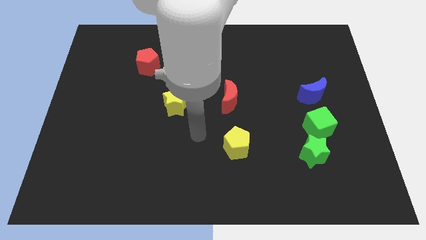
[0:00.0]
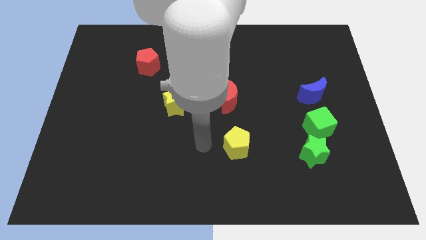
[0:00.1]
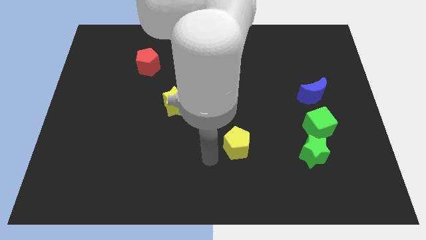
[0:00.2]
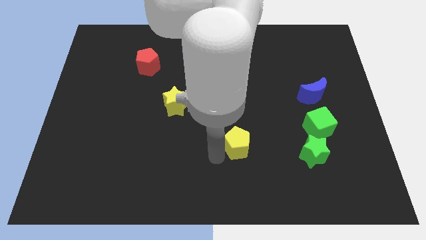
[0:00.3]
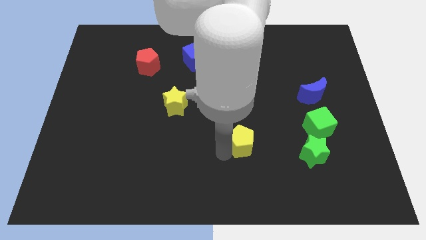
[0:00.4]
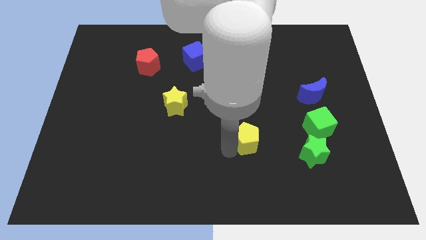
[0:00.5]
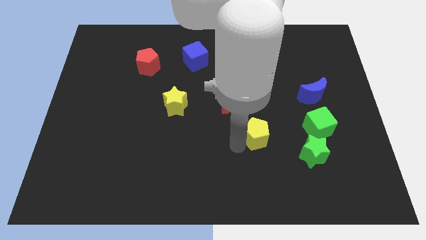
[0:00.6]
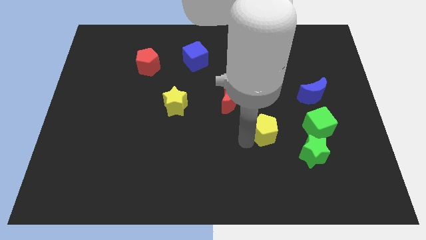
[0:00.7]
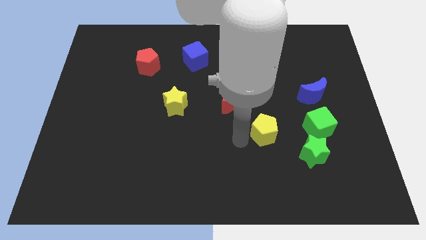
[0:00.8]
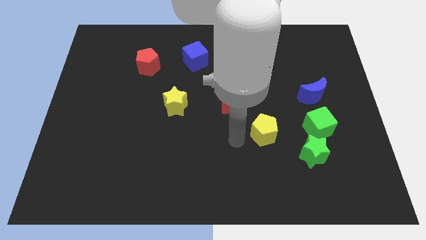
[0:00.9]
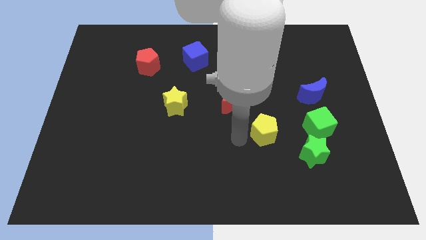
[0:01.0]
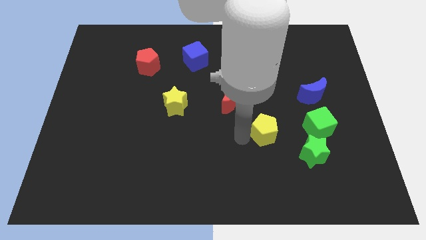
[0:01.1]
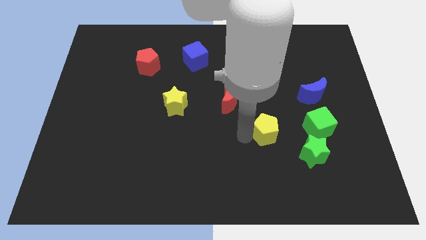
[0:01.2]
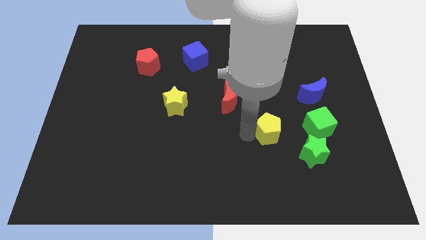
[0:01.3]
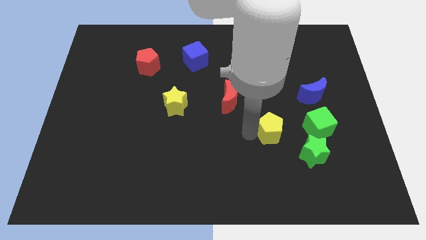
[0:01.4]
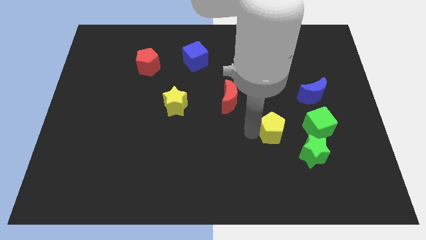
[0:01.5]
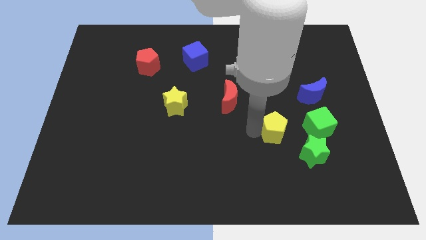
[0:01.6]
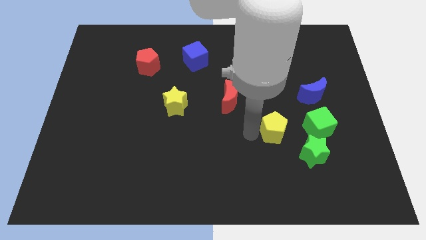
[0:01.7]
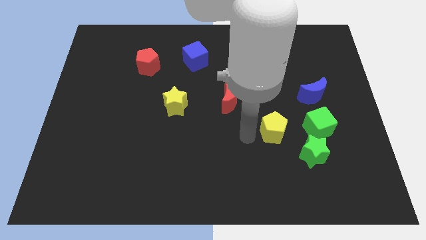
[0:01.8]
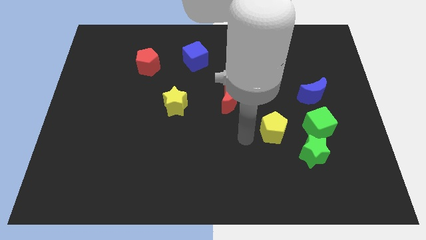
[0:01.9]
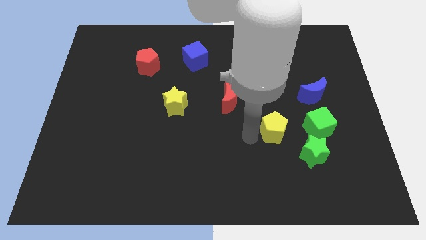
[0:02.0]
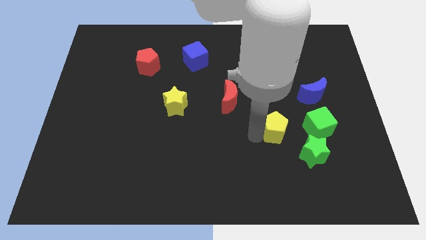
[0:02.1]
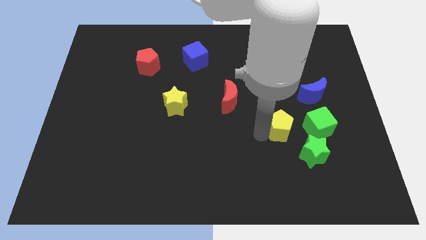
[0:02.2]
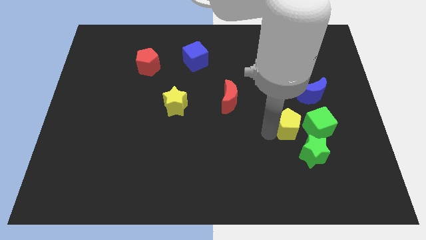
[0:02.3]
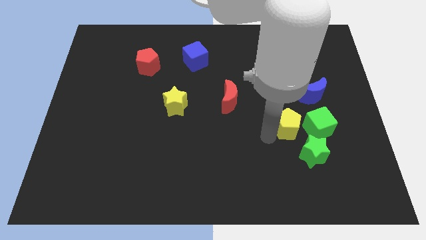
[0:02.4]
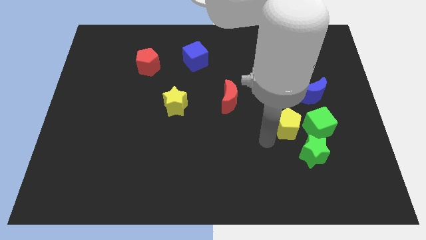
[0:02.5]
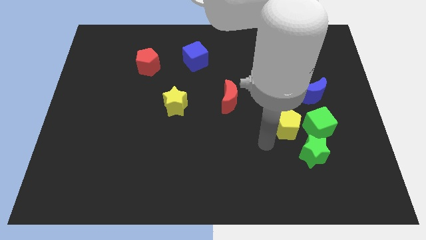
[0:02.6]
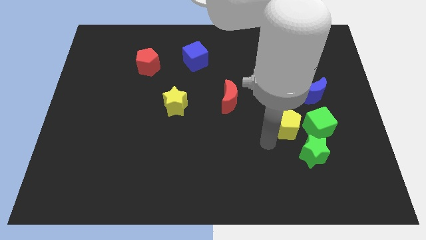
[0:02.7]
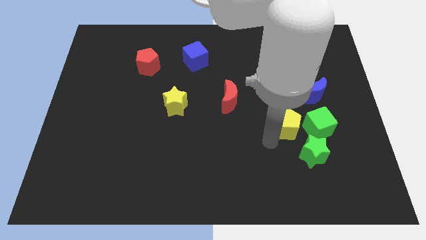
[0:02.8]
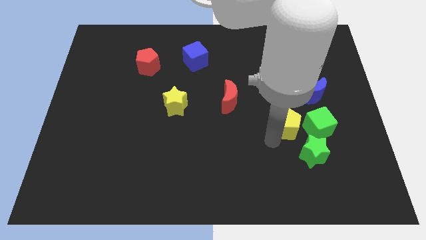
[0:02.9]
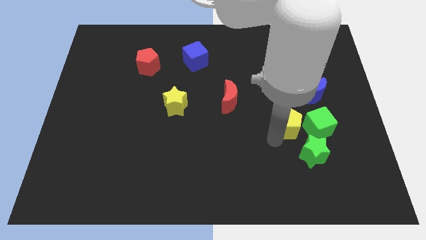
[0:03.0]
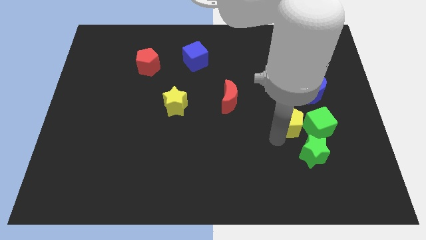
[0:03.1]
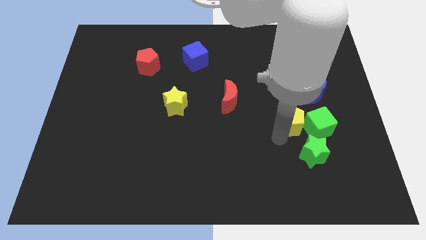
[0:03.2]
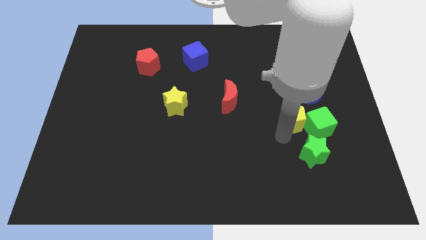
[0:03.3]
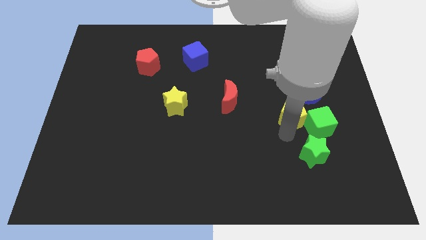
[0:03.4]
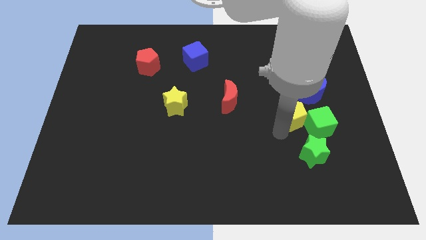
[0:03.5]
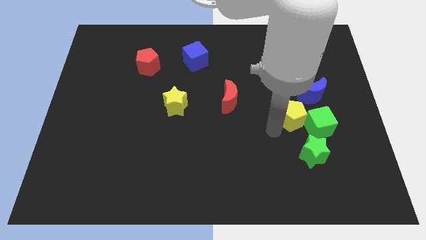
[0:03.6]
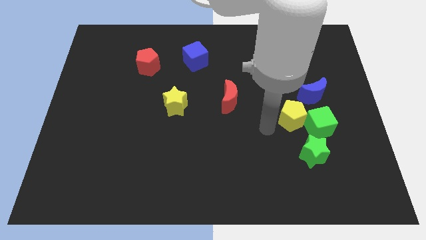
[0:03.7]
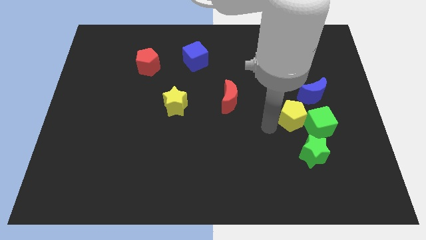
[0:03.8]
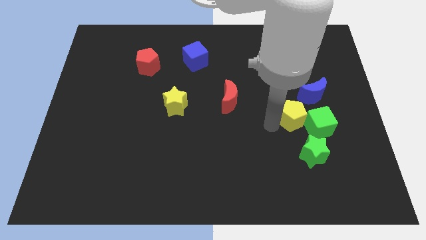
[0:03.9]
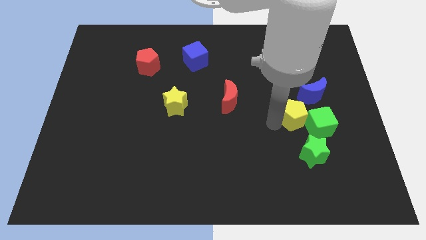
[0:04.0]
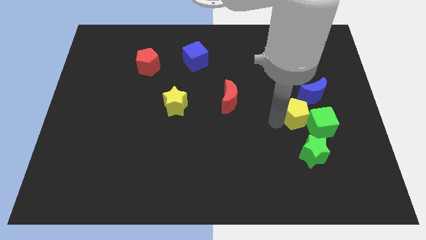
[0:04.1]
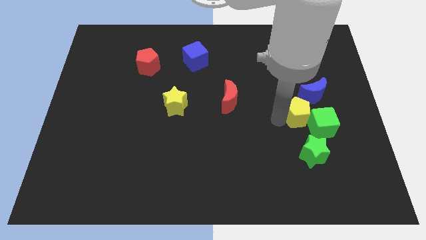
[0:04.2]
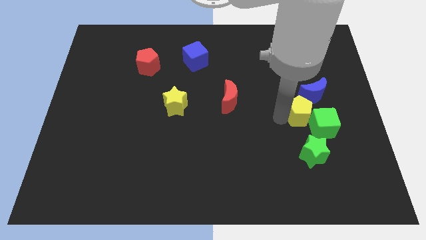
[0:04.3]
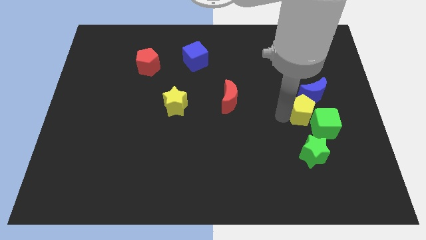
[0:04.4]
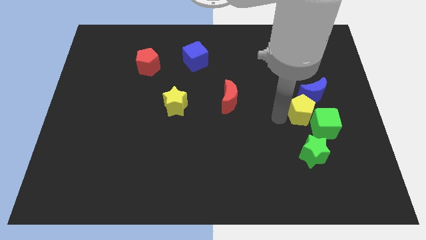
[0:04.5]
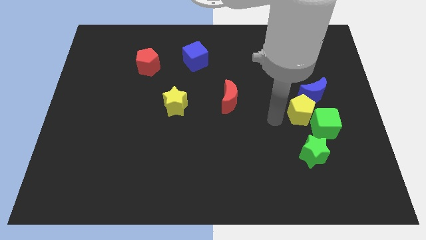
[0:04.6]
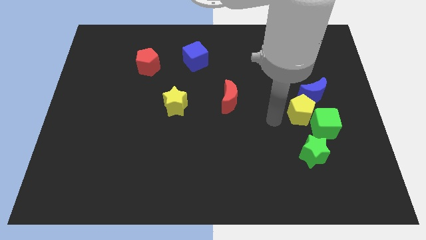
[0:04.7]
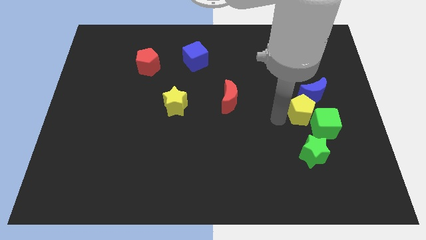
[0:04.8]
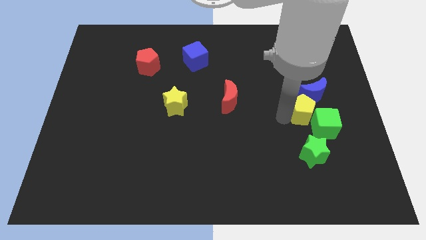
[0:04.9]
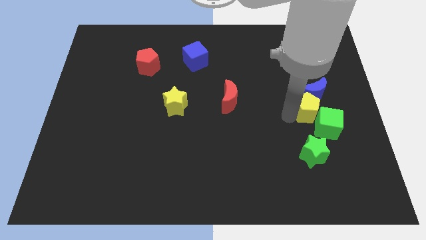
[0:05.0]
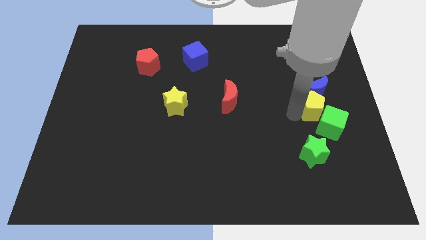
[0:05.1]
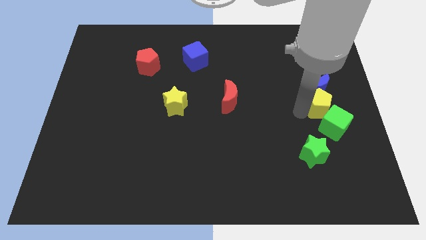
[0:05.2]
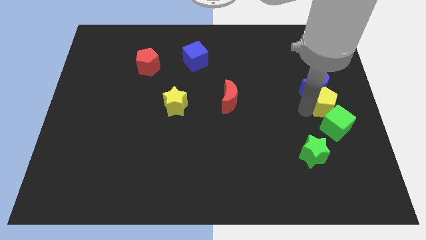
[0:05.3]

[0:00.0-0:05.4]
slide the yellow pentagon to the center right

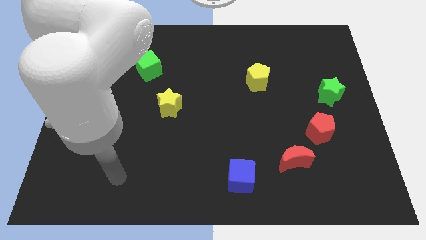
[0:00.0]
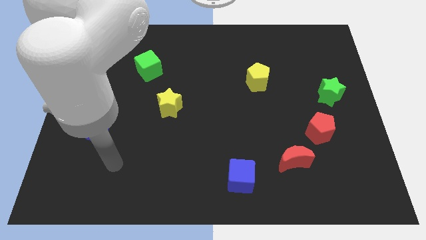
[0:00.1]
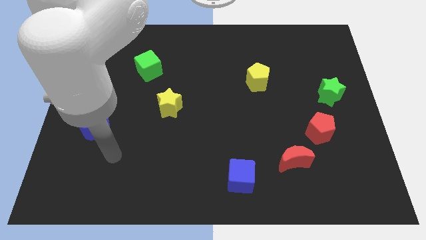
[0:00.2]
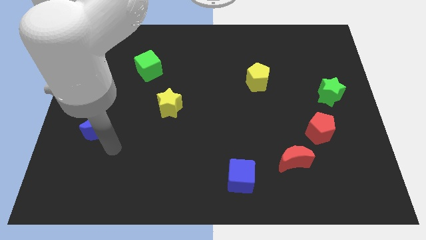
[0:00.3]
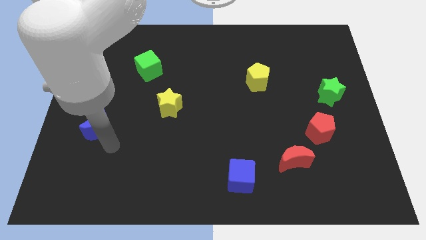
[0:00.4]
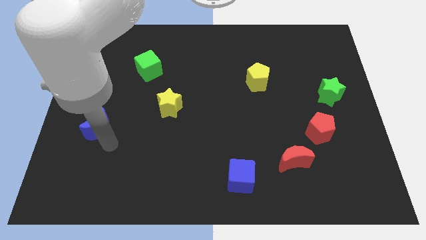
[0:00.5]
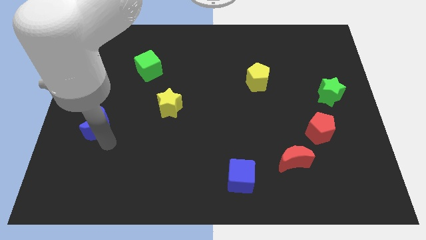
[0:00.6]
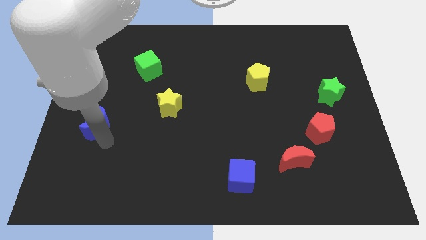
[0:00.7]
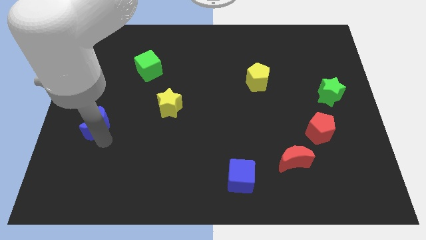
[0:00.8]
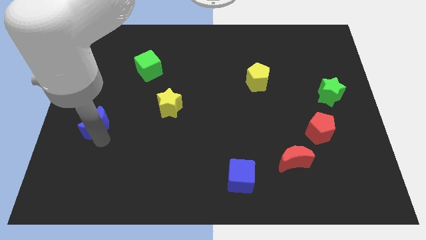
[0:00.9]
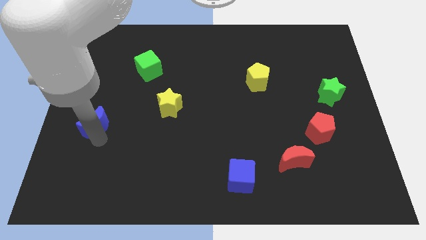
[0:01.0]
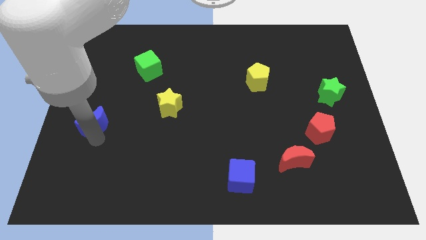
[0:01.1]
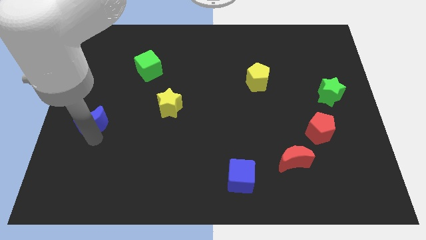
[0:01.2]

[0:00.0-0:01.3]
put the blue moon to the center left
